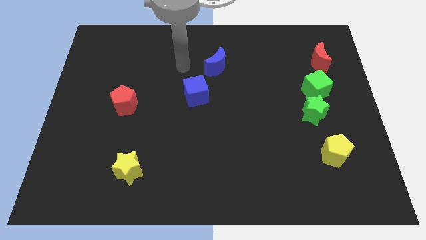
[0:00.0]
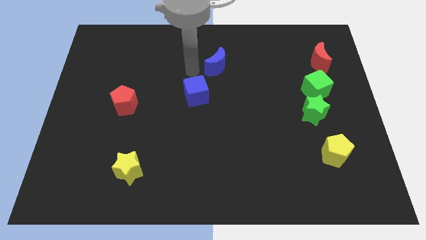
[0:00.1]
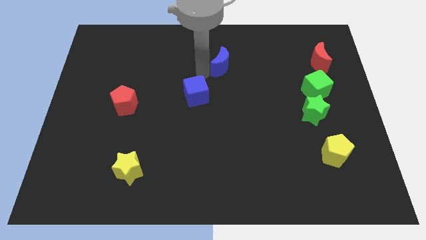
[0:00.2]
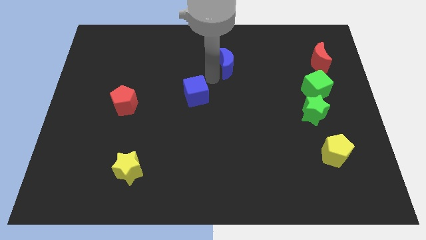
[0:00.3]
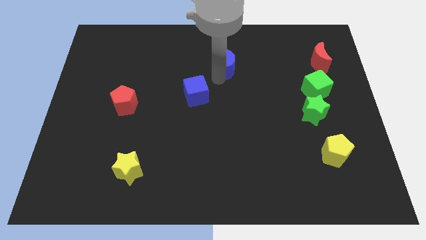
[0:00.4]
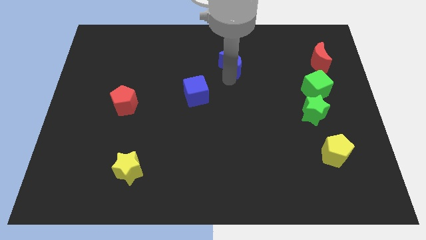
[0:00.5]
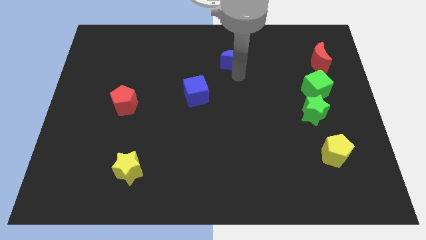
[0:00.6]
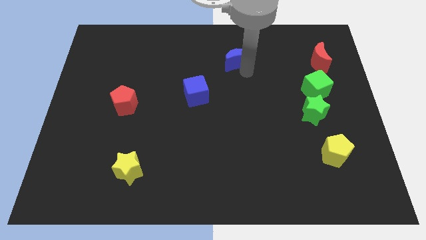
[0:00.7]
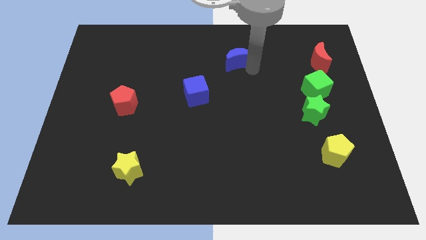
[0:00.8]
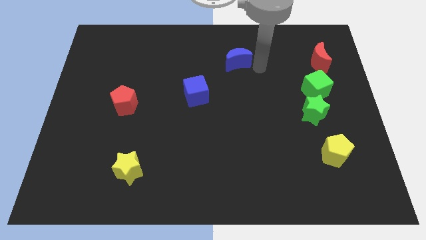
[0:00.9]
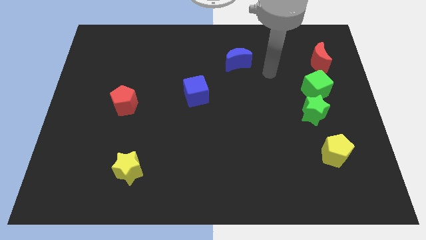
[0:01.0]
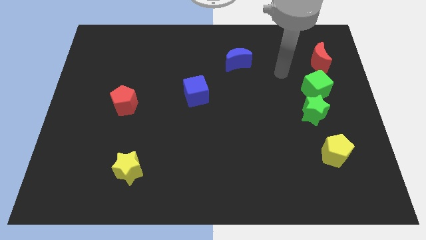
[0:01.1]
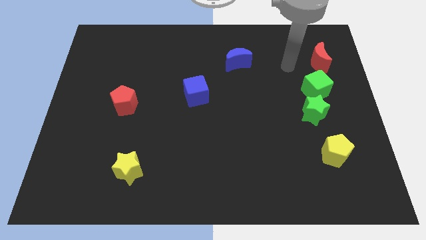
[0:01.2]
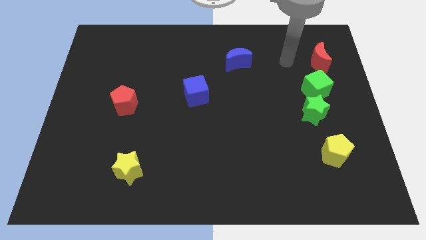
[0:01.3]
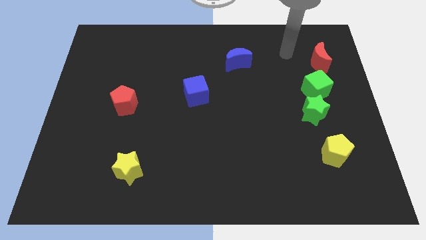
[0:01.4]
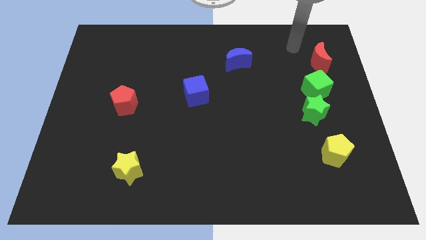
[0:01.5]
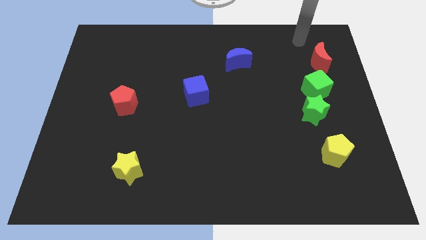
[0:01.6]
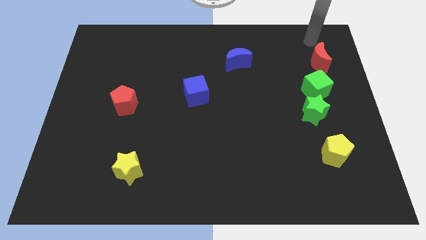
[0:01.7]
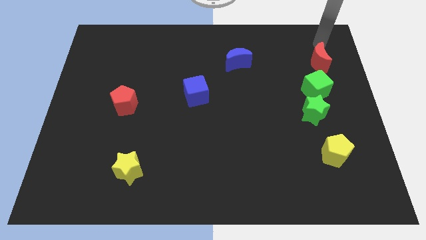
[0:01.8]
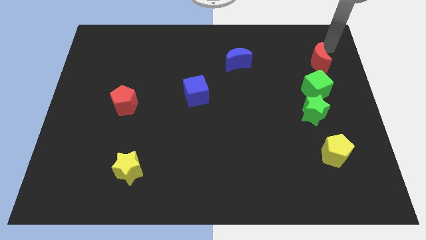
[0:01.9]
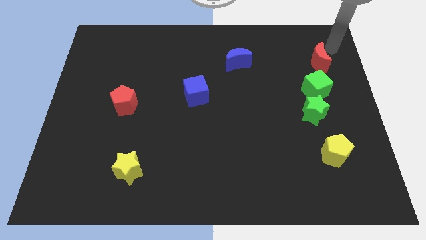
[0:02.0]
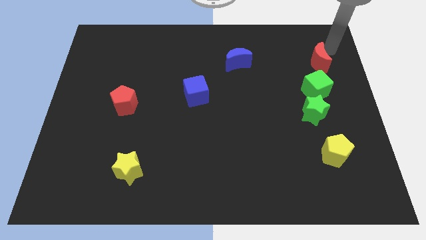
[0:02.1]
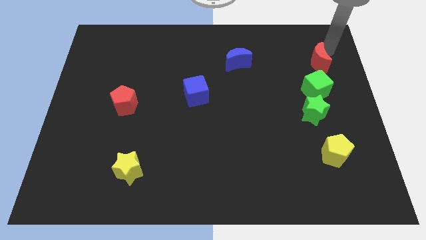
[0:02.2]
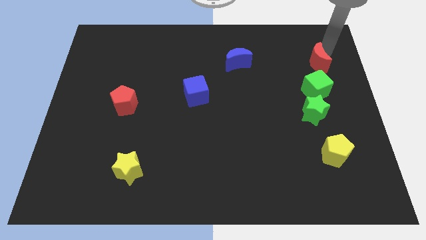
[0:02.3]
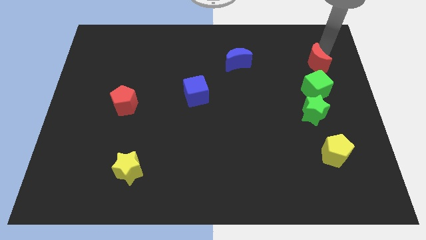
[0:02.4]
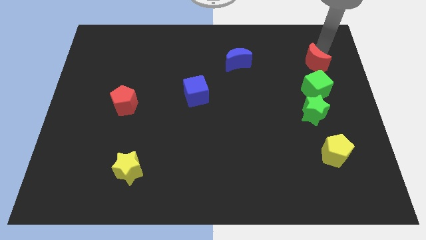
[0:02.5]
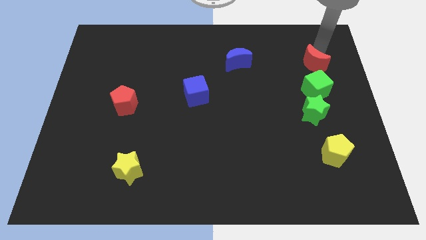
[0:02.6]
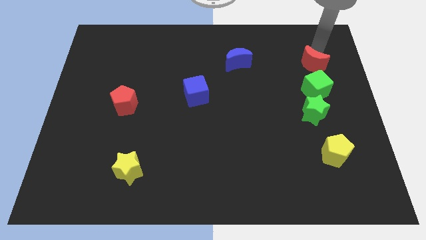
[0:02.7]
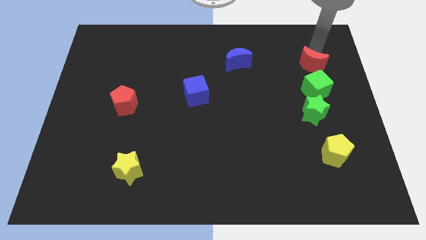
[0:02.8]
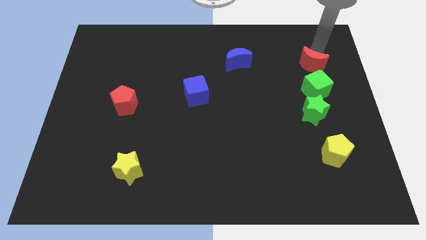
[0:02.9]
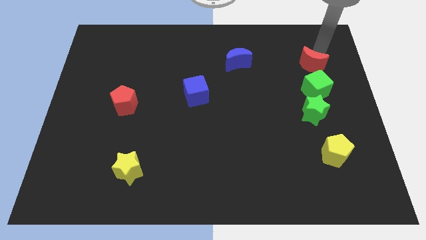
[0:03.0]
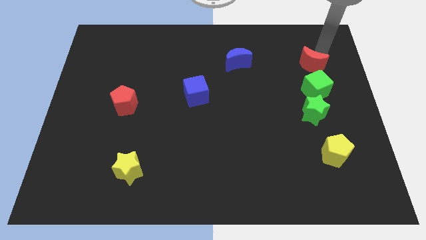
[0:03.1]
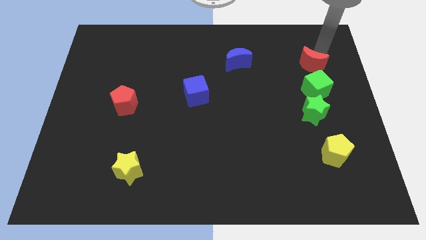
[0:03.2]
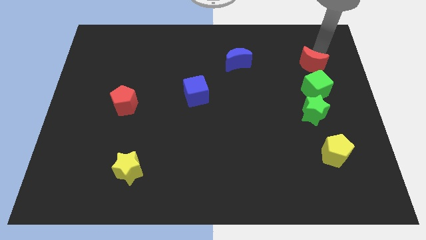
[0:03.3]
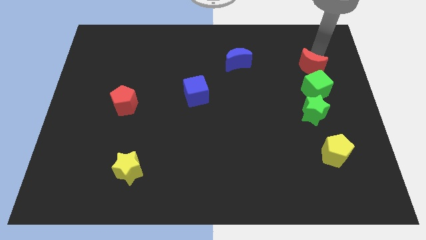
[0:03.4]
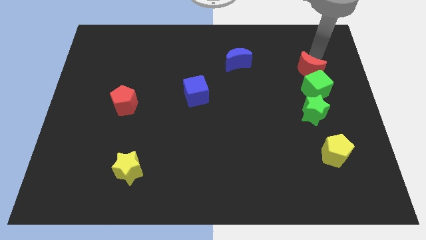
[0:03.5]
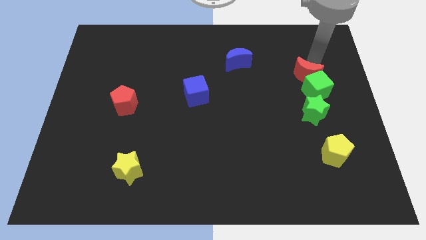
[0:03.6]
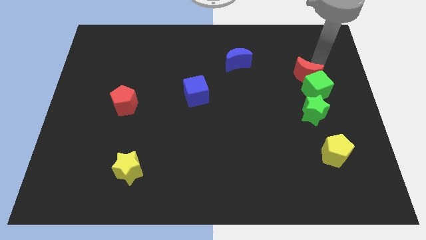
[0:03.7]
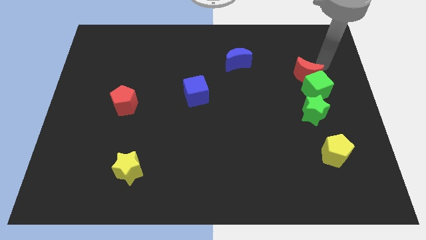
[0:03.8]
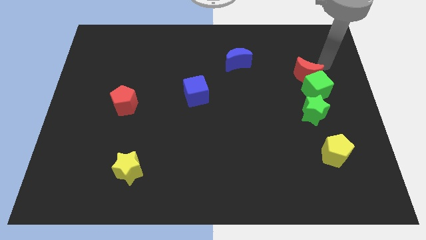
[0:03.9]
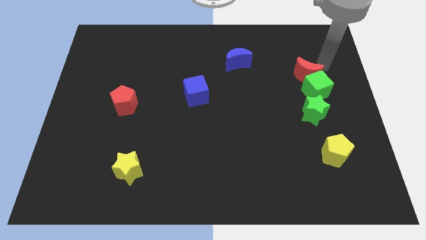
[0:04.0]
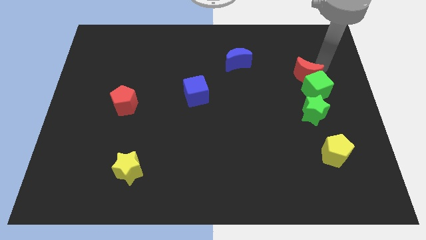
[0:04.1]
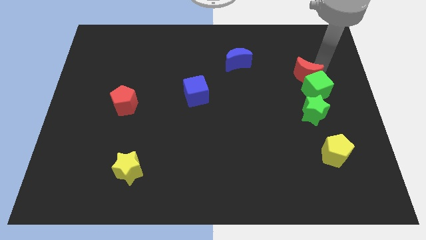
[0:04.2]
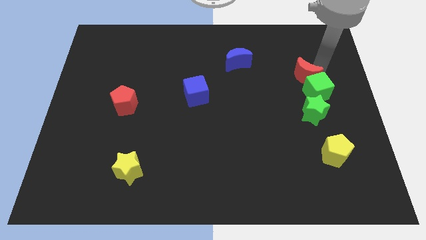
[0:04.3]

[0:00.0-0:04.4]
push the red moon down and to the left somewhat

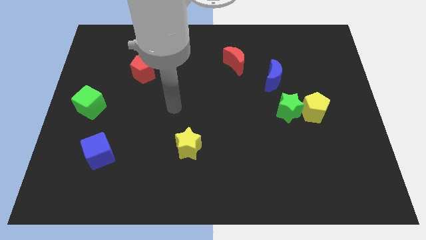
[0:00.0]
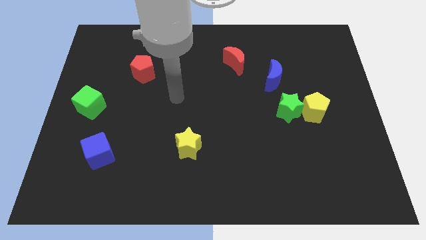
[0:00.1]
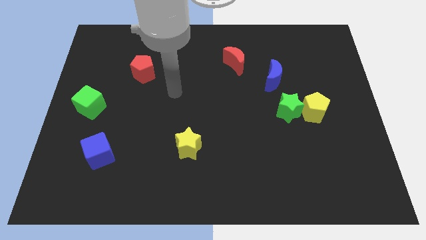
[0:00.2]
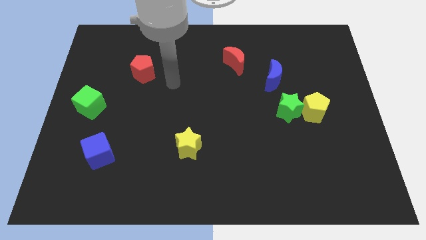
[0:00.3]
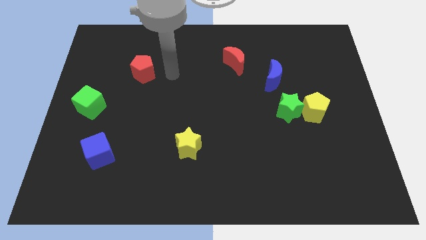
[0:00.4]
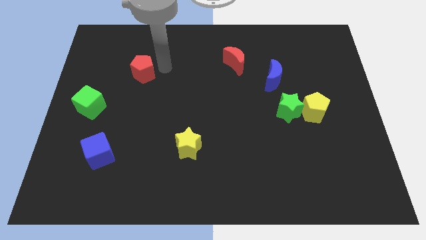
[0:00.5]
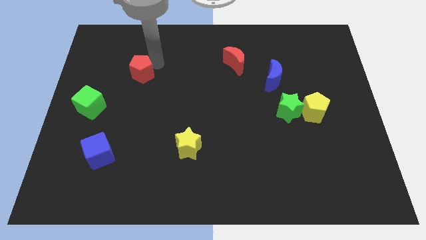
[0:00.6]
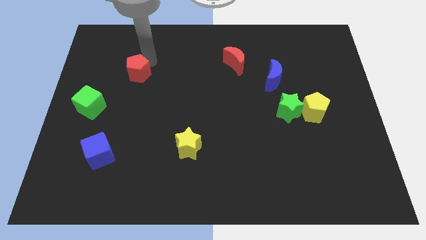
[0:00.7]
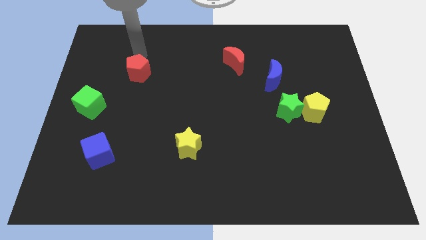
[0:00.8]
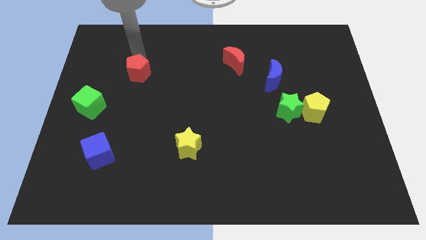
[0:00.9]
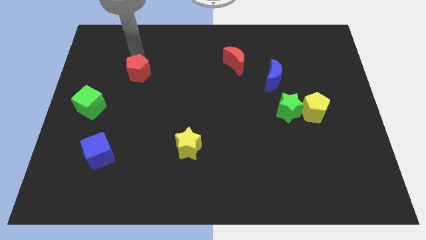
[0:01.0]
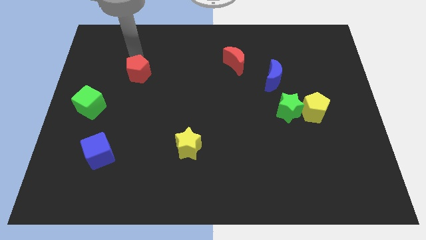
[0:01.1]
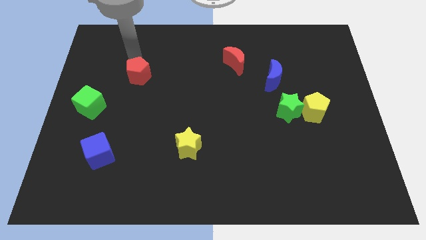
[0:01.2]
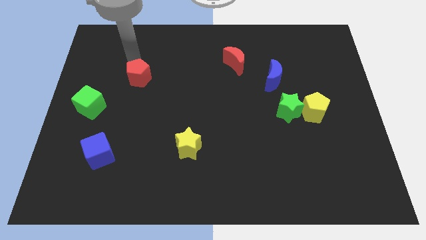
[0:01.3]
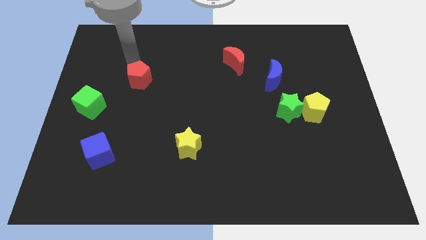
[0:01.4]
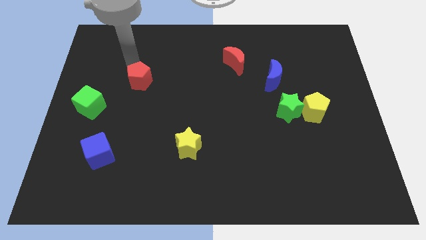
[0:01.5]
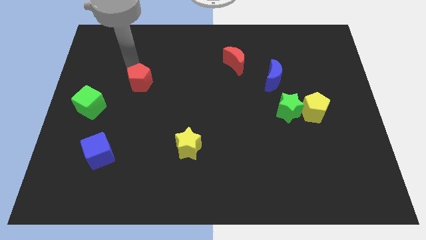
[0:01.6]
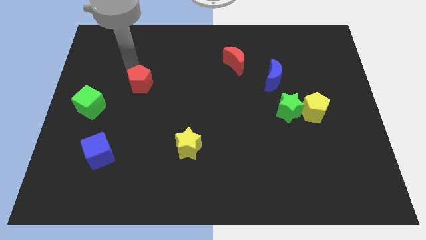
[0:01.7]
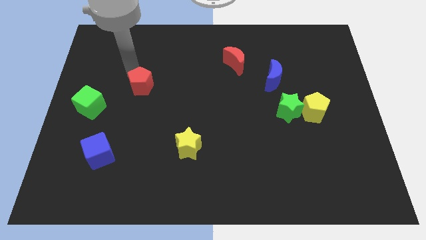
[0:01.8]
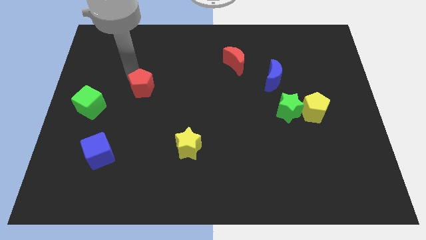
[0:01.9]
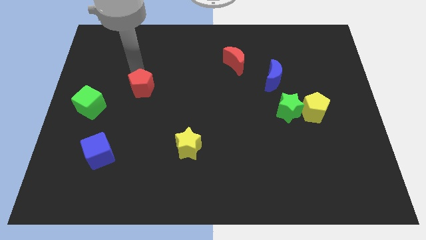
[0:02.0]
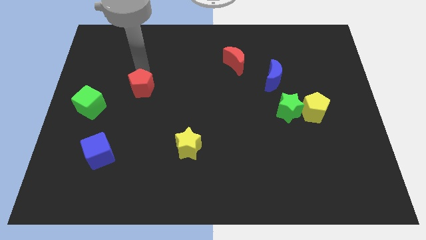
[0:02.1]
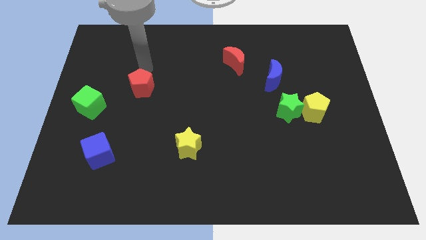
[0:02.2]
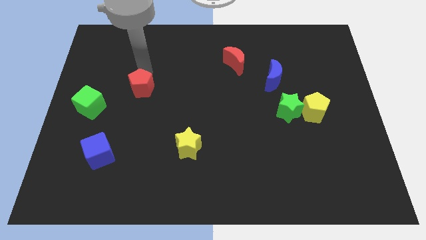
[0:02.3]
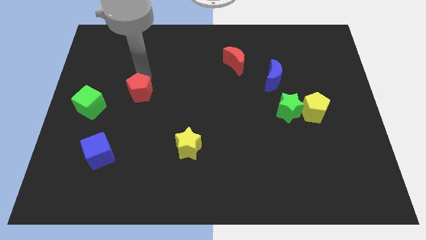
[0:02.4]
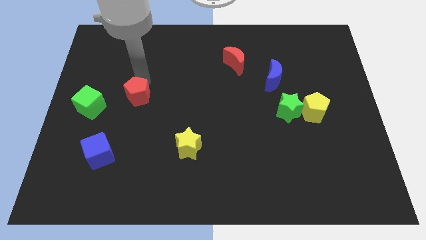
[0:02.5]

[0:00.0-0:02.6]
slightly slide the red pentagon downwards

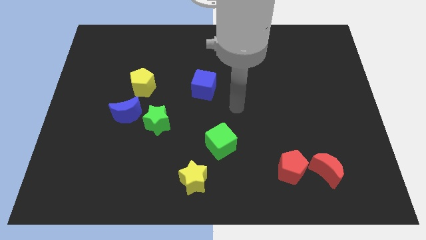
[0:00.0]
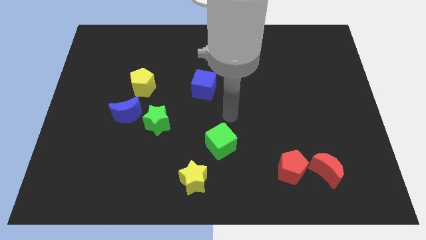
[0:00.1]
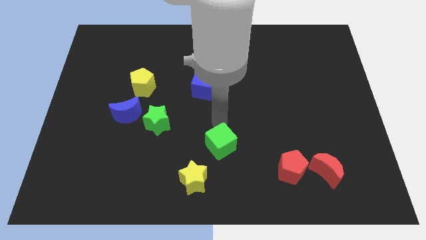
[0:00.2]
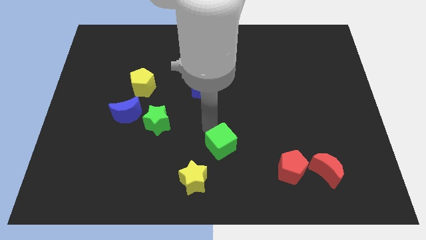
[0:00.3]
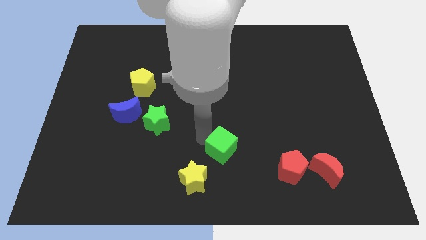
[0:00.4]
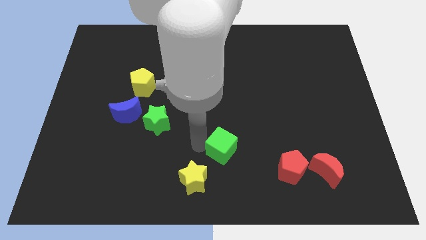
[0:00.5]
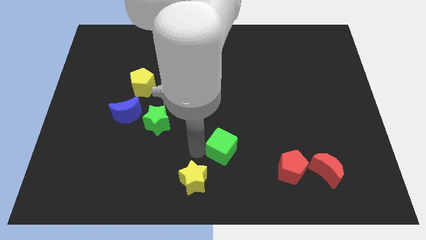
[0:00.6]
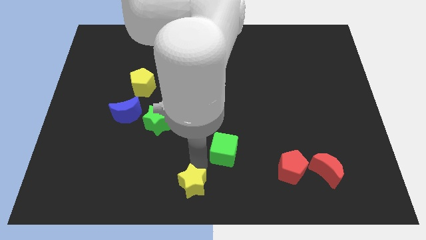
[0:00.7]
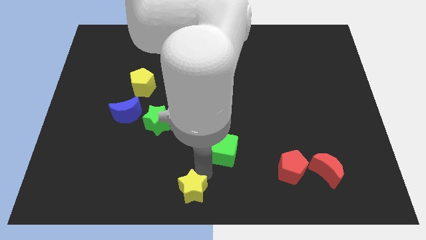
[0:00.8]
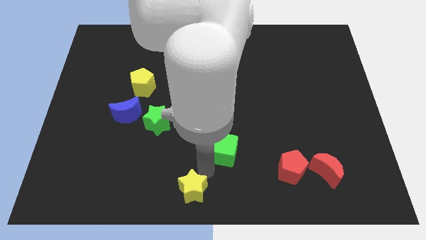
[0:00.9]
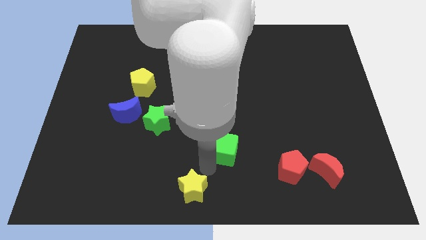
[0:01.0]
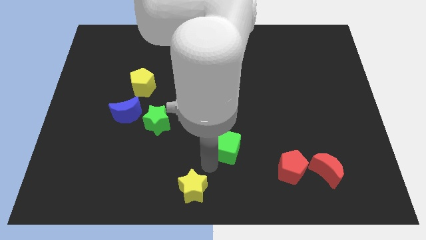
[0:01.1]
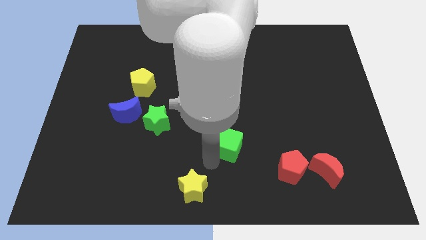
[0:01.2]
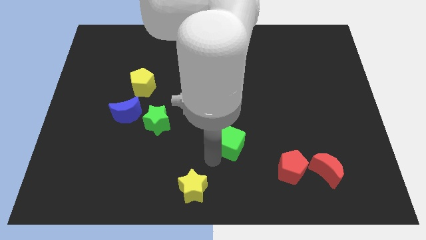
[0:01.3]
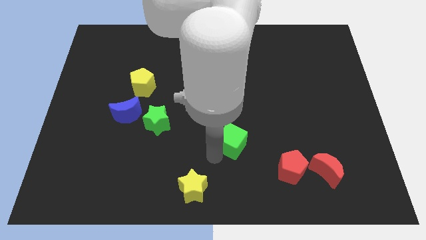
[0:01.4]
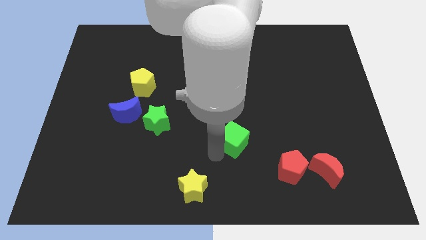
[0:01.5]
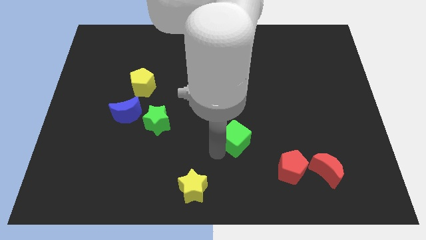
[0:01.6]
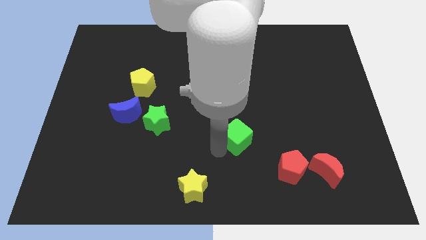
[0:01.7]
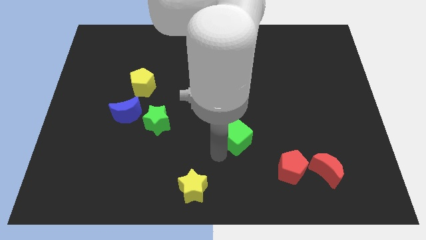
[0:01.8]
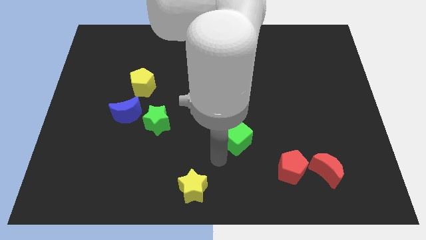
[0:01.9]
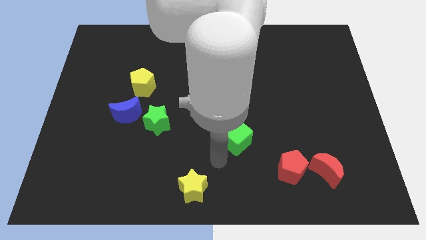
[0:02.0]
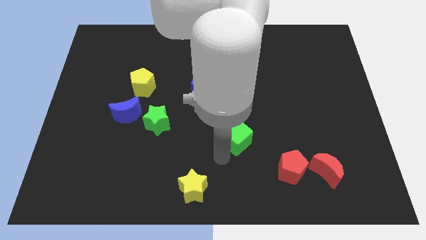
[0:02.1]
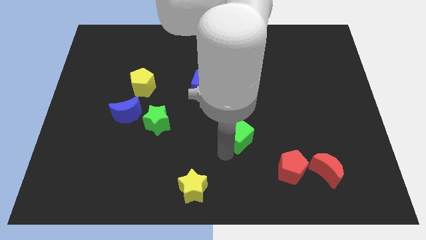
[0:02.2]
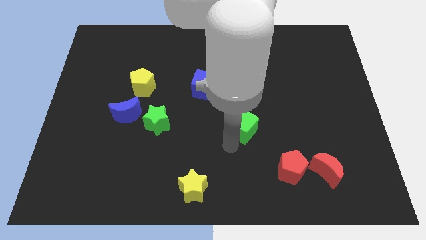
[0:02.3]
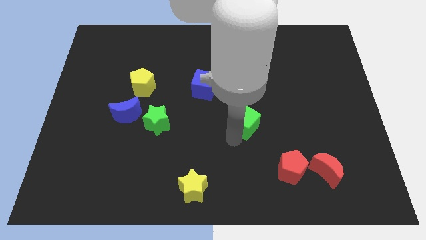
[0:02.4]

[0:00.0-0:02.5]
slightly slide the green cube up and then to the right
